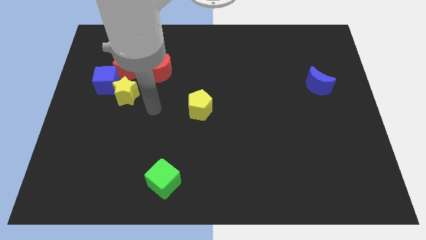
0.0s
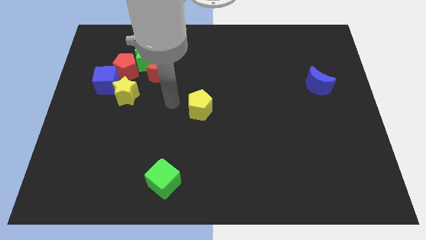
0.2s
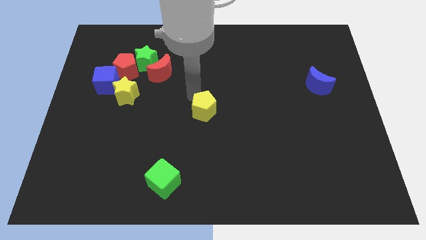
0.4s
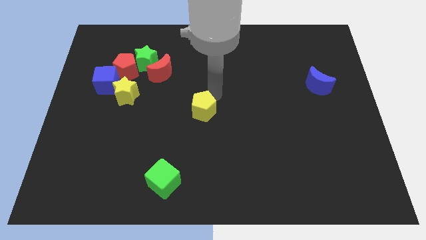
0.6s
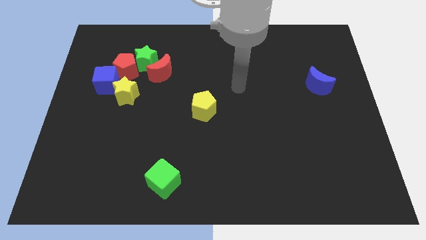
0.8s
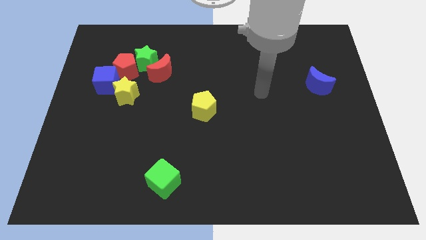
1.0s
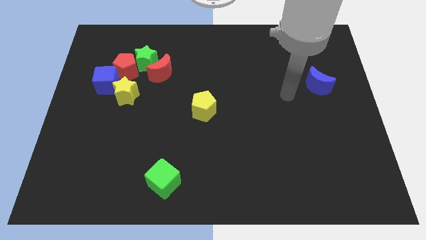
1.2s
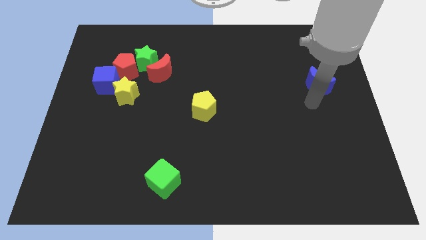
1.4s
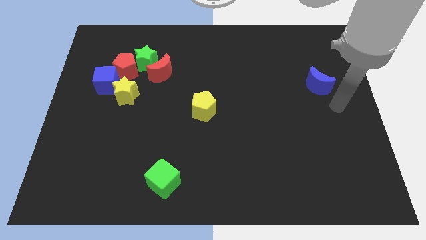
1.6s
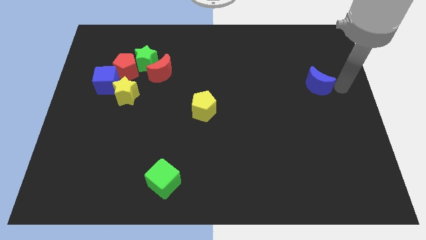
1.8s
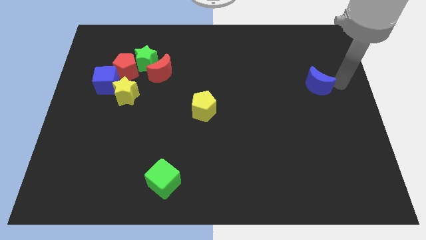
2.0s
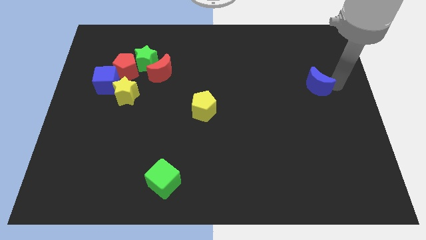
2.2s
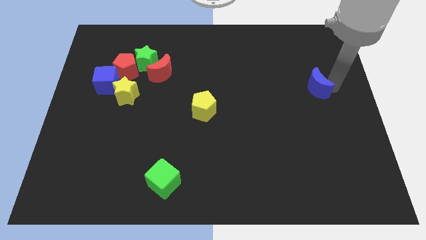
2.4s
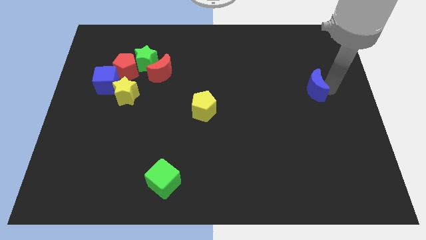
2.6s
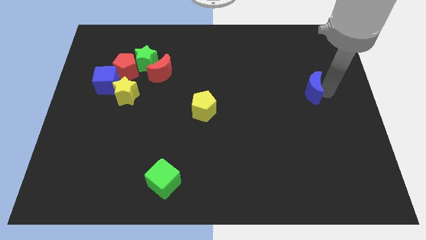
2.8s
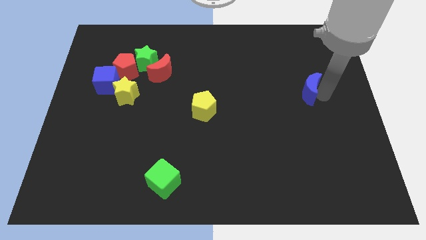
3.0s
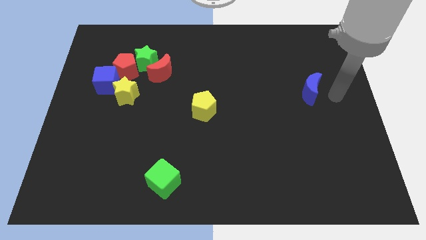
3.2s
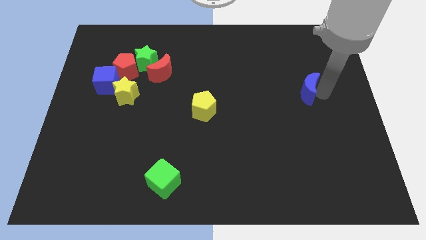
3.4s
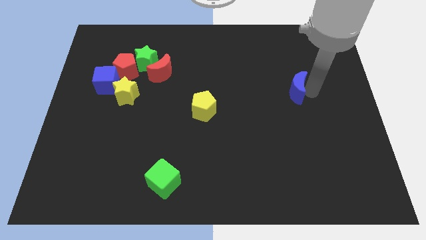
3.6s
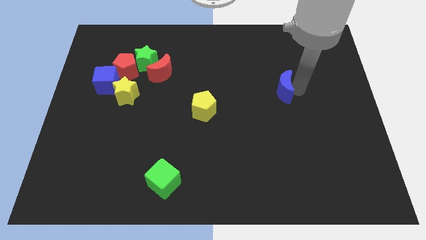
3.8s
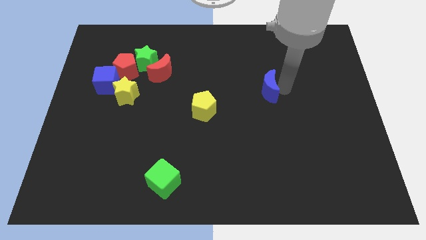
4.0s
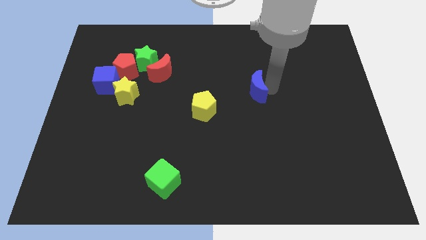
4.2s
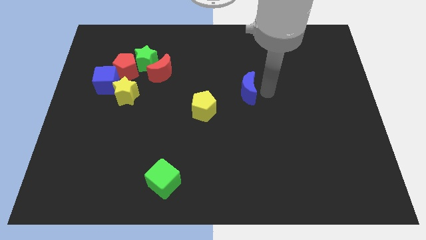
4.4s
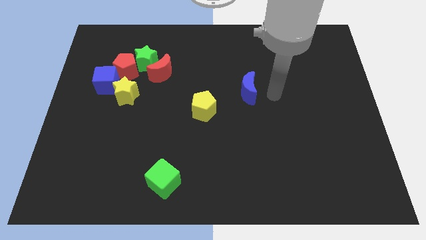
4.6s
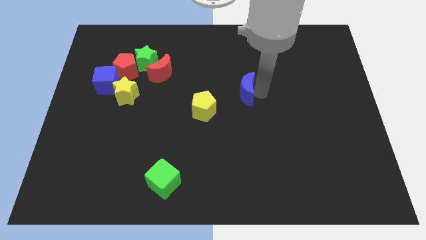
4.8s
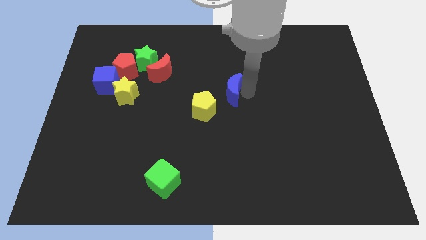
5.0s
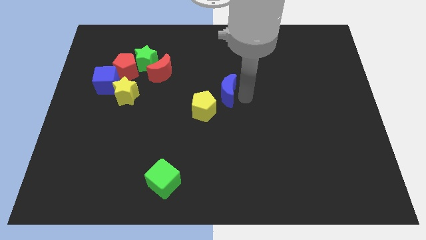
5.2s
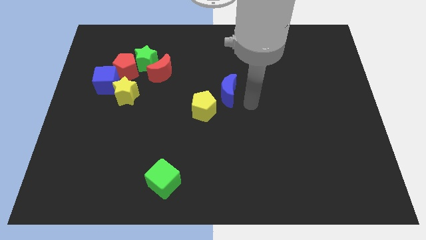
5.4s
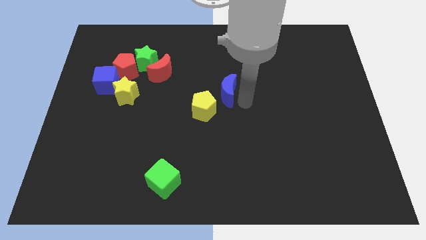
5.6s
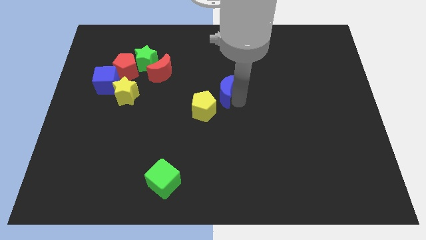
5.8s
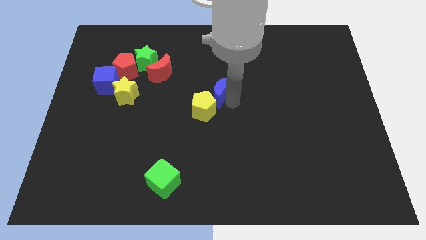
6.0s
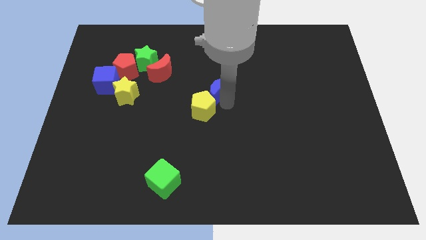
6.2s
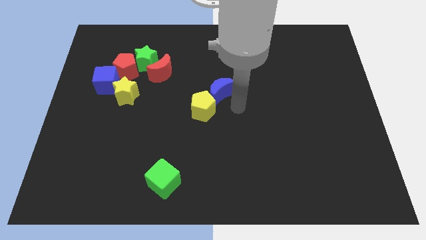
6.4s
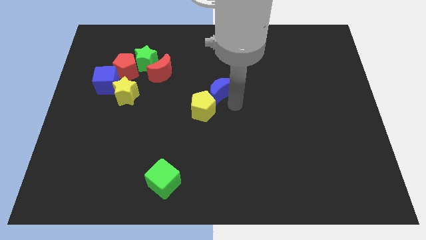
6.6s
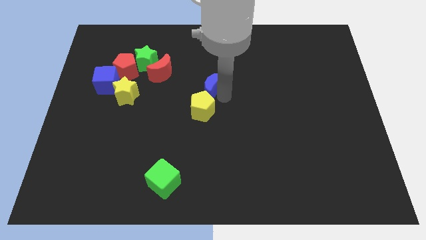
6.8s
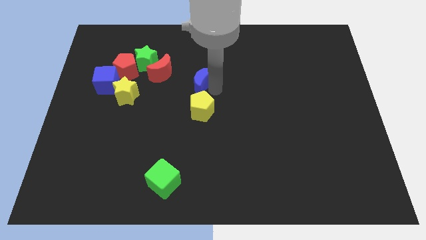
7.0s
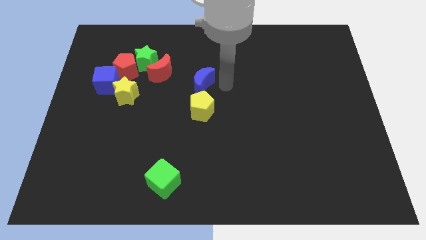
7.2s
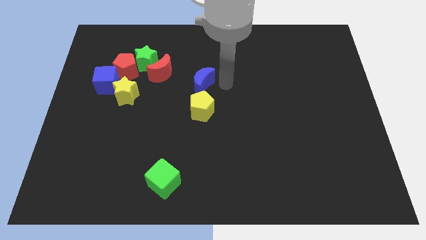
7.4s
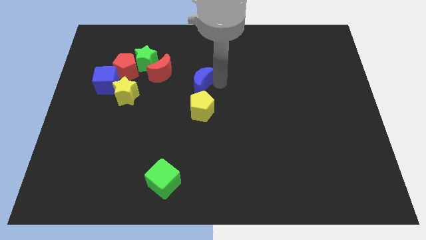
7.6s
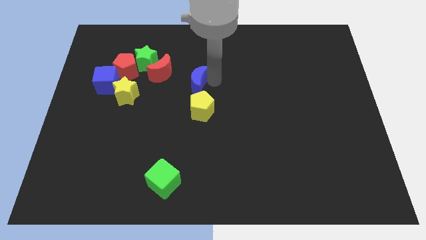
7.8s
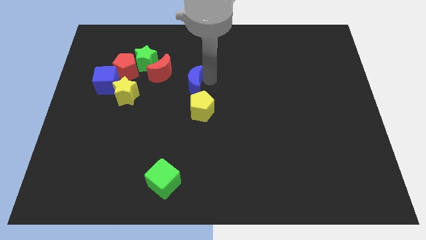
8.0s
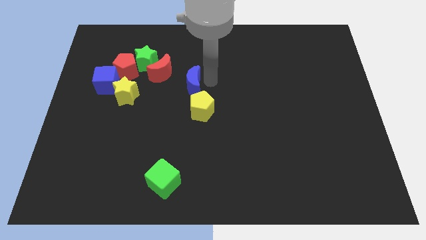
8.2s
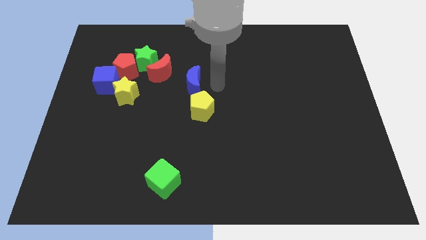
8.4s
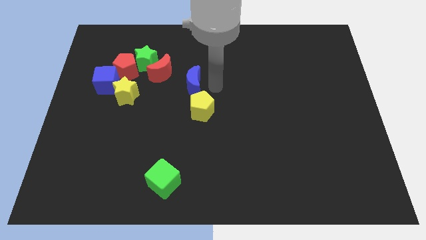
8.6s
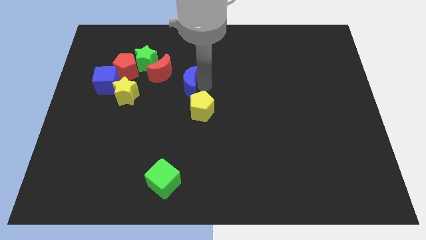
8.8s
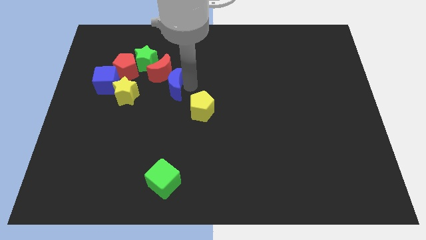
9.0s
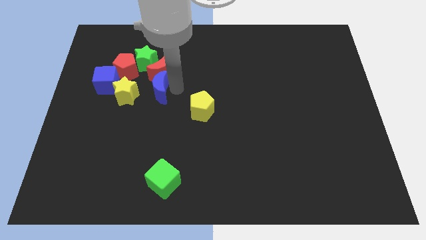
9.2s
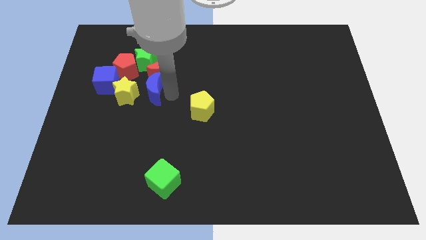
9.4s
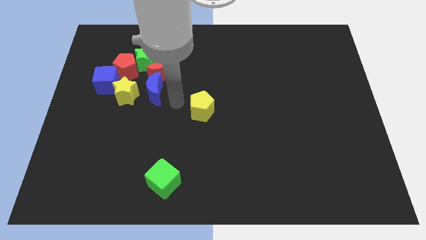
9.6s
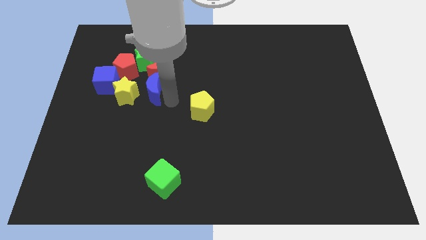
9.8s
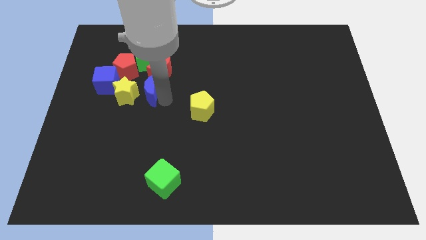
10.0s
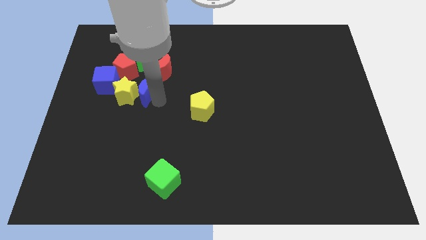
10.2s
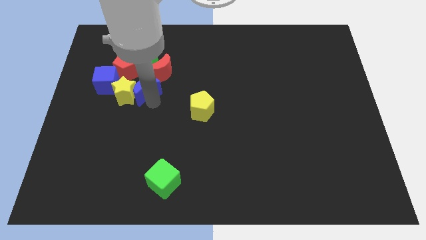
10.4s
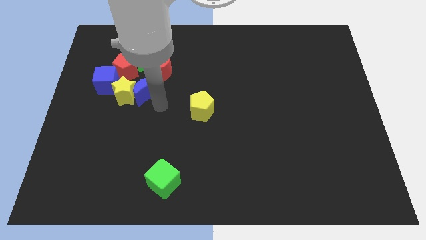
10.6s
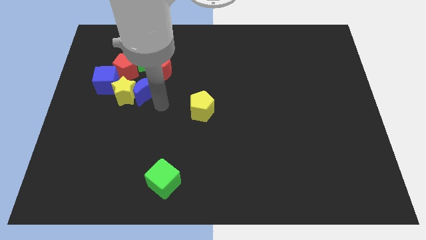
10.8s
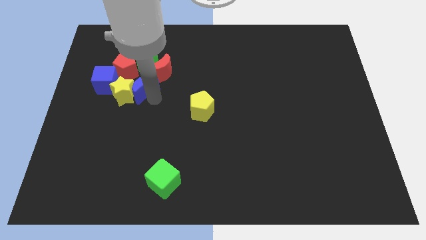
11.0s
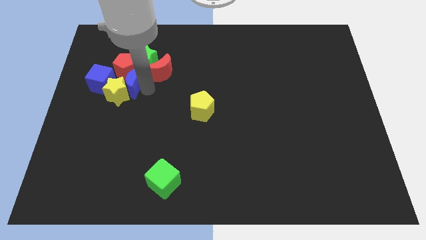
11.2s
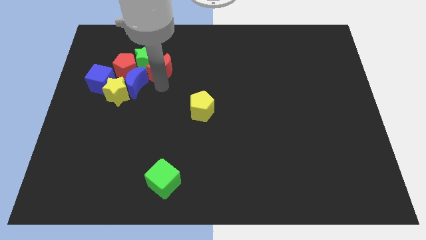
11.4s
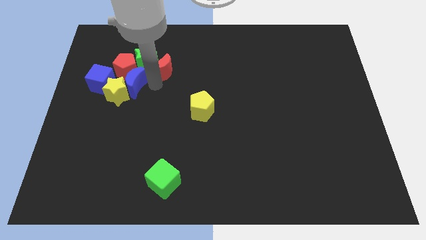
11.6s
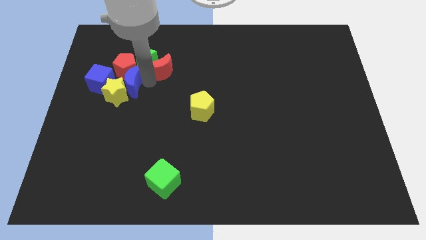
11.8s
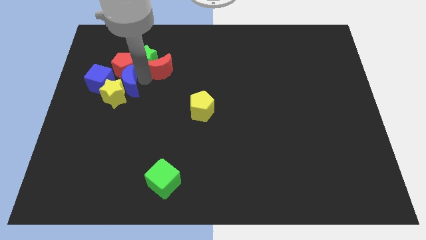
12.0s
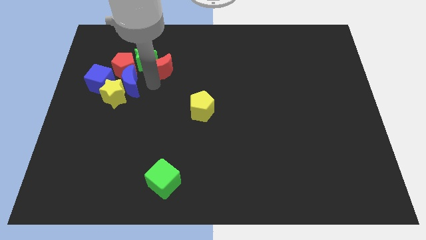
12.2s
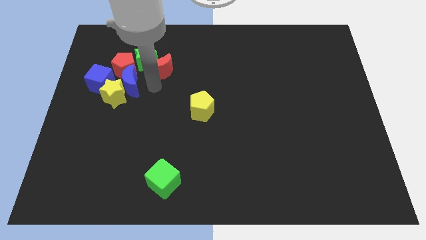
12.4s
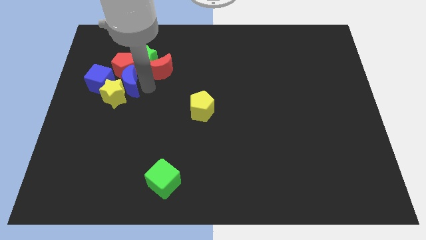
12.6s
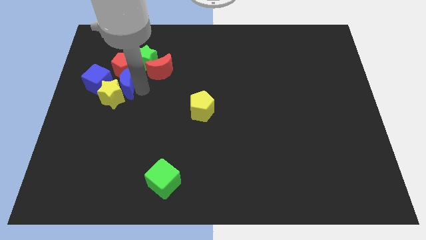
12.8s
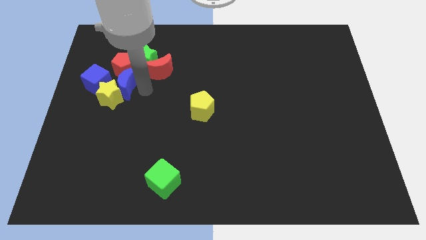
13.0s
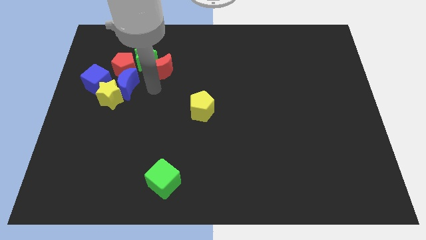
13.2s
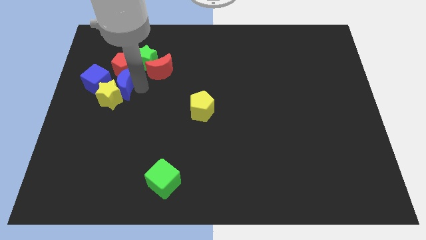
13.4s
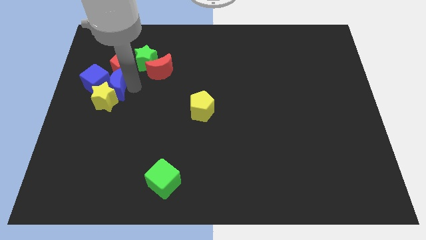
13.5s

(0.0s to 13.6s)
slide the blue moon close to the blue cube
